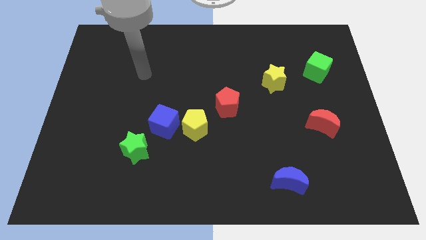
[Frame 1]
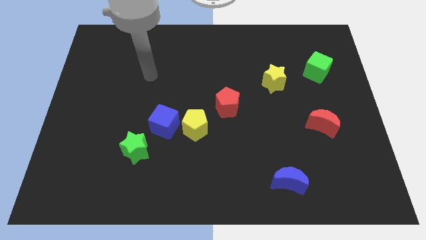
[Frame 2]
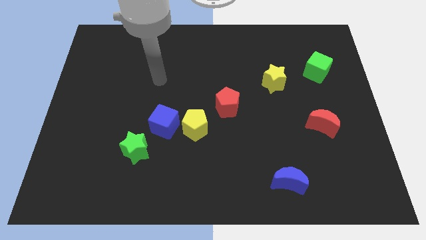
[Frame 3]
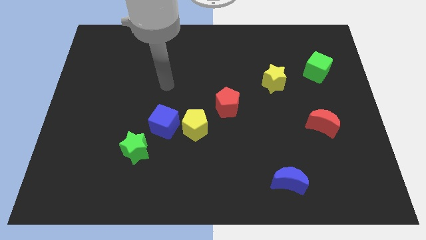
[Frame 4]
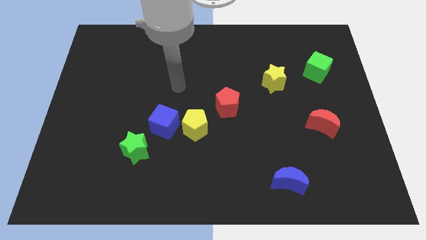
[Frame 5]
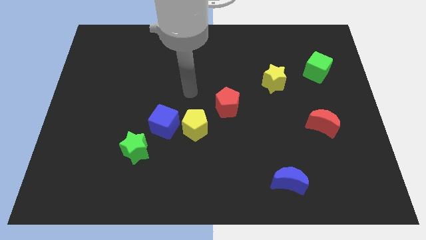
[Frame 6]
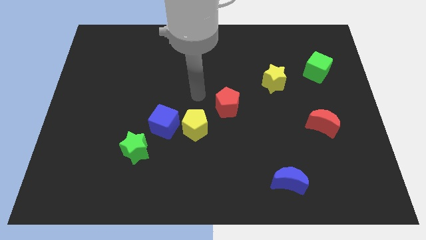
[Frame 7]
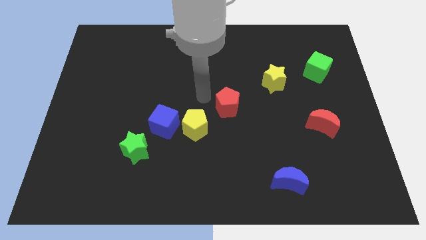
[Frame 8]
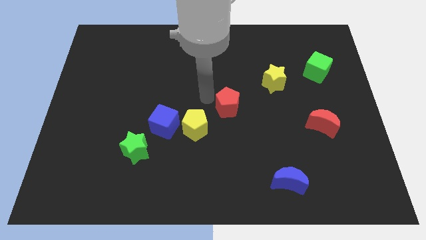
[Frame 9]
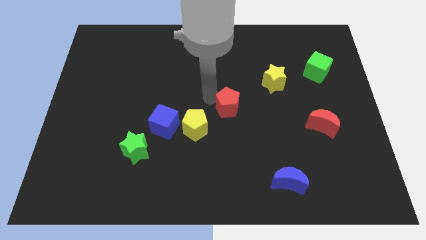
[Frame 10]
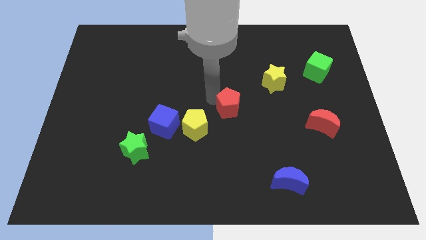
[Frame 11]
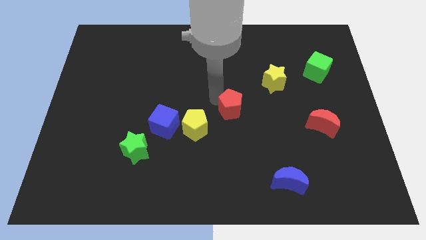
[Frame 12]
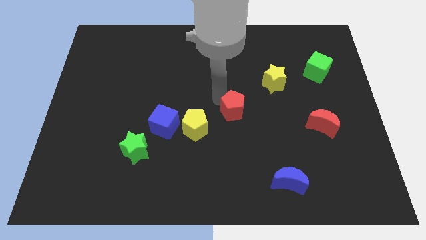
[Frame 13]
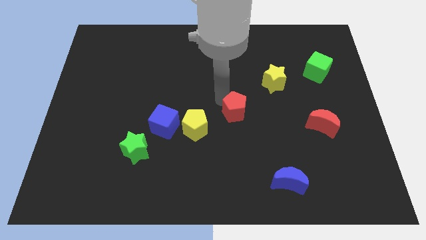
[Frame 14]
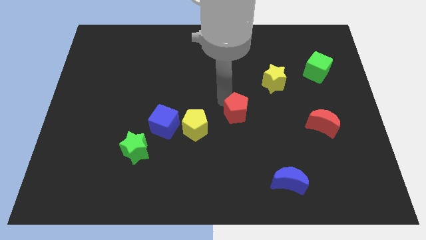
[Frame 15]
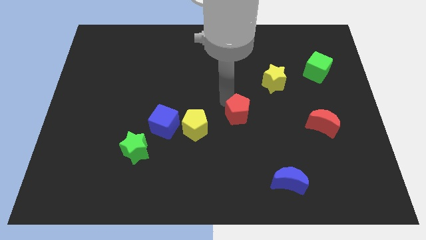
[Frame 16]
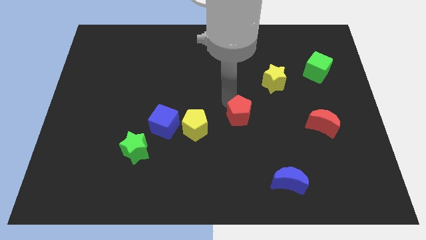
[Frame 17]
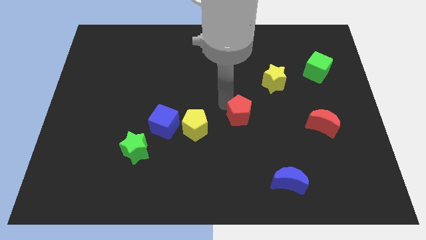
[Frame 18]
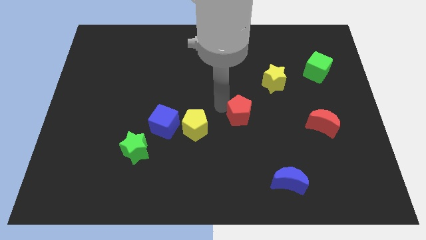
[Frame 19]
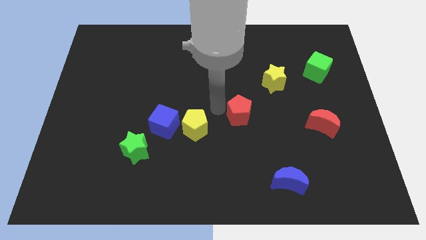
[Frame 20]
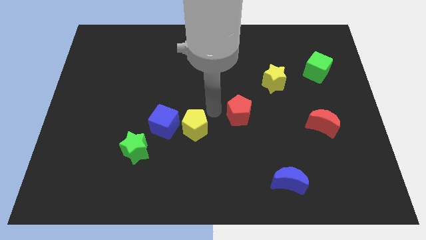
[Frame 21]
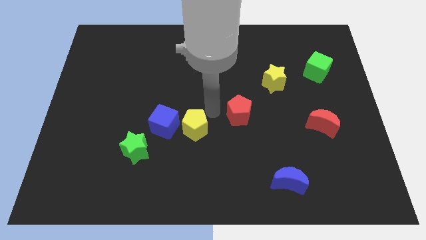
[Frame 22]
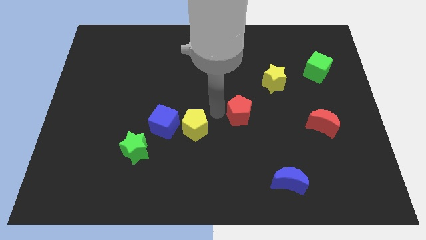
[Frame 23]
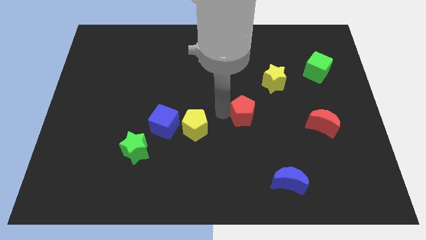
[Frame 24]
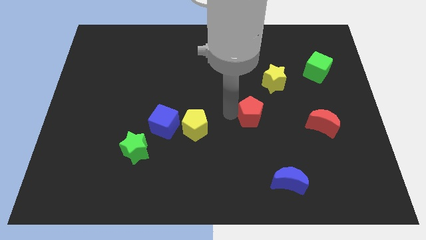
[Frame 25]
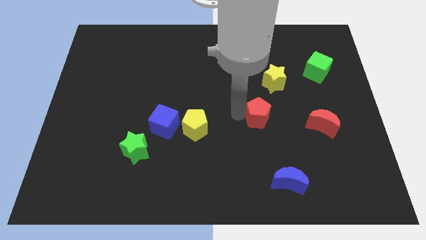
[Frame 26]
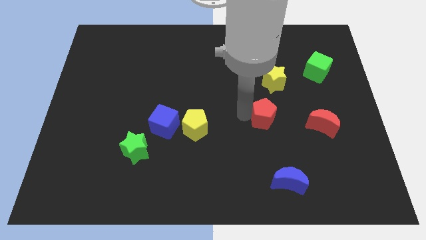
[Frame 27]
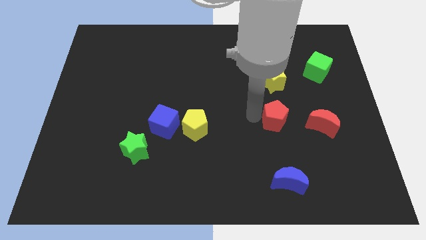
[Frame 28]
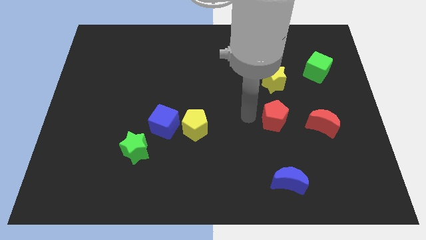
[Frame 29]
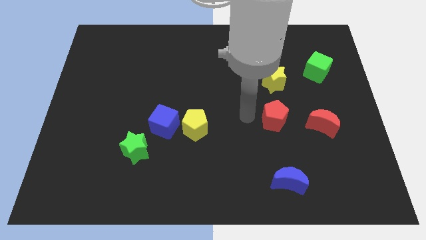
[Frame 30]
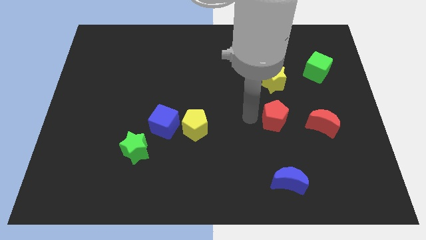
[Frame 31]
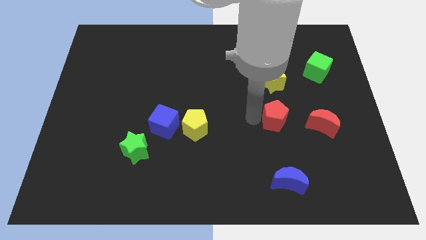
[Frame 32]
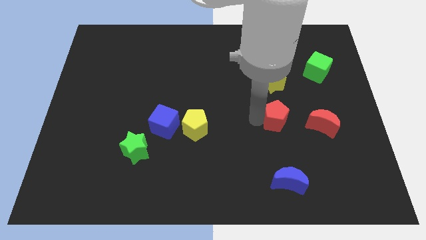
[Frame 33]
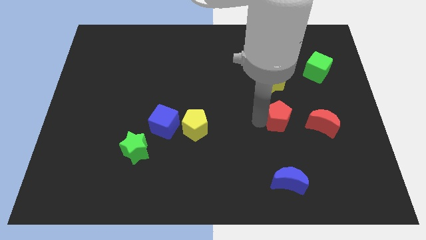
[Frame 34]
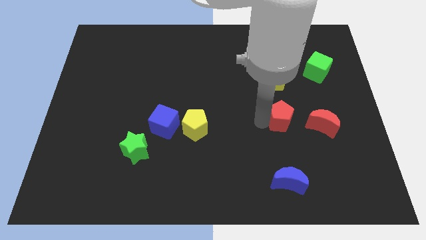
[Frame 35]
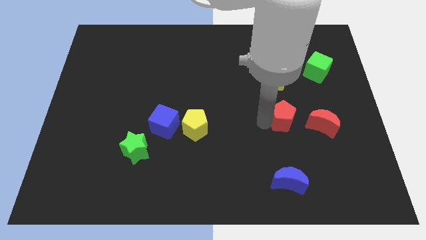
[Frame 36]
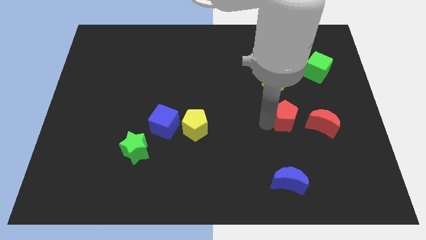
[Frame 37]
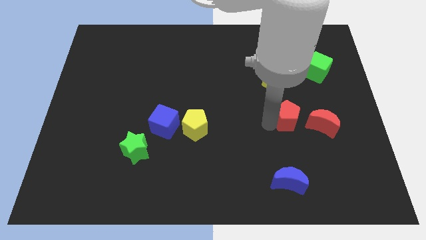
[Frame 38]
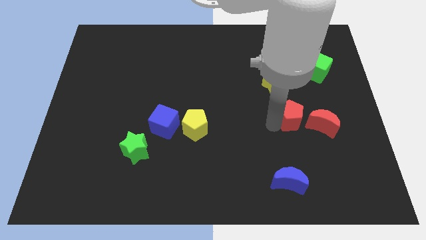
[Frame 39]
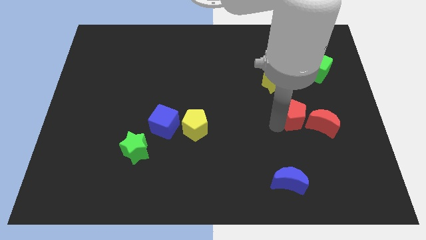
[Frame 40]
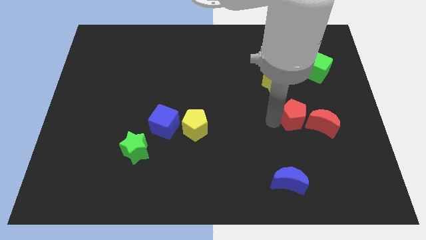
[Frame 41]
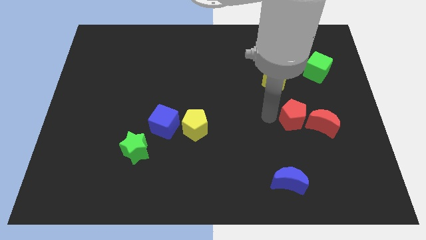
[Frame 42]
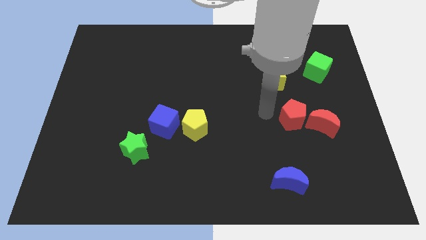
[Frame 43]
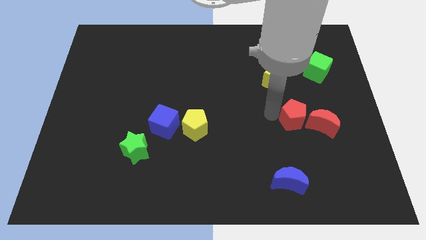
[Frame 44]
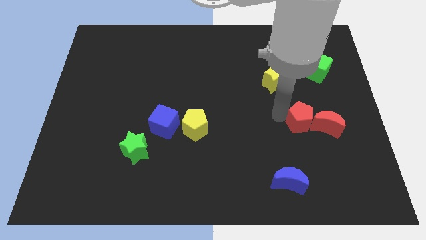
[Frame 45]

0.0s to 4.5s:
move the red pentagon to the red moon

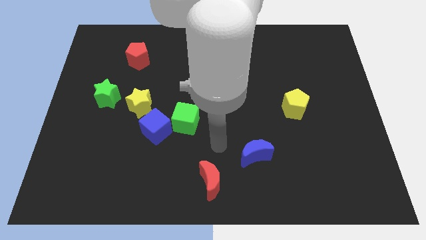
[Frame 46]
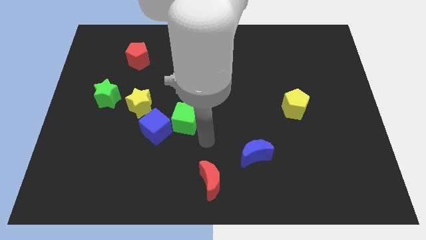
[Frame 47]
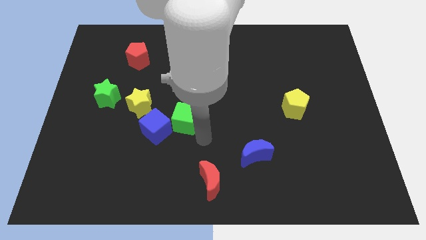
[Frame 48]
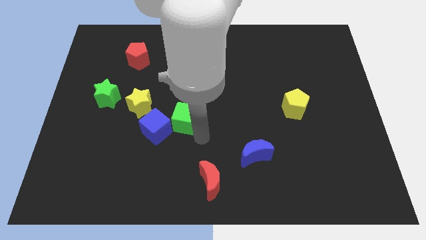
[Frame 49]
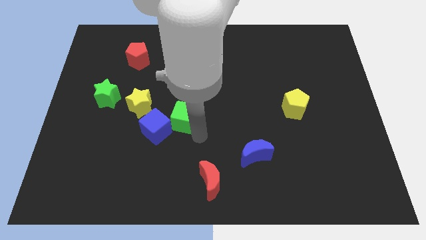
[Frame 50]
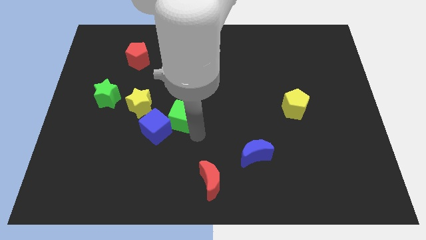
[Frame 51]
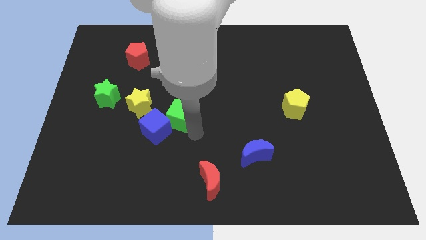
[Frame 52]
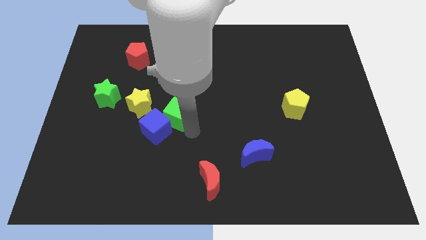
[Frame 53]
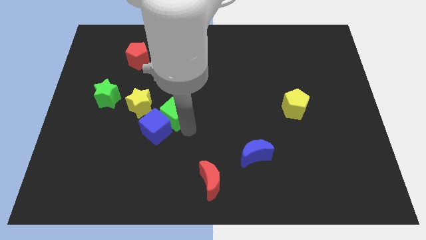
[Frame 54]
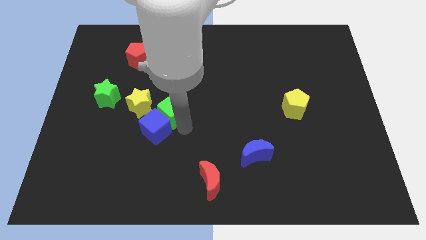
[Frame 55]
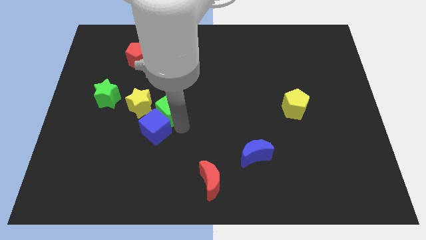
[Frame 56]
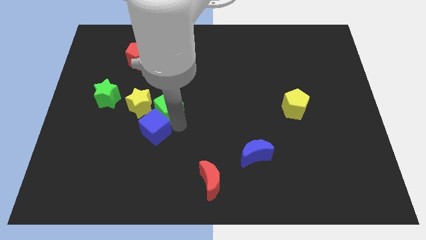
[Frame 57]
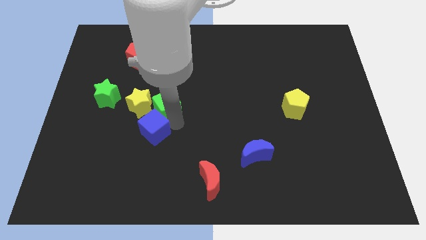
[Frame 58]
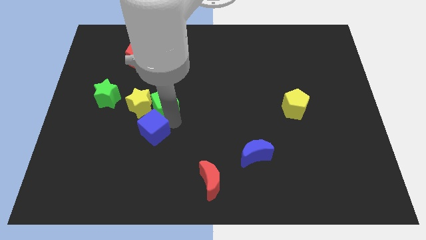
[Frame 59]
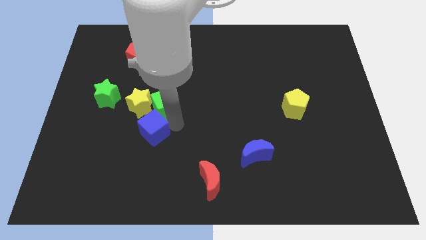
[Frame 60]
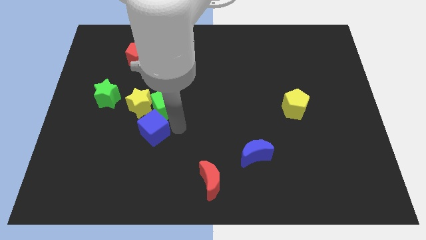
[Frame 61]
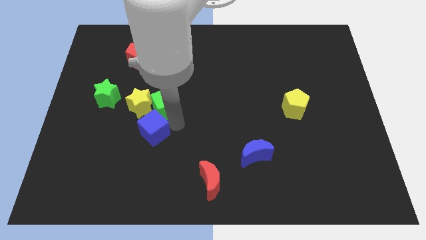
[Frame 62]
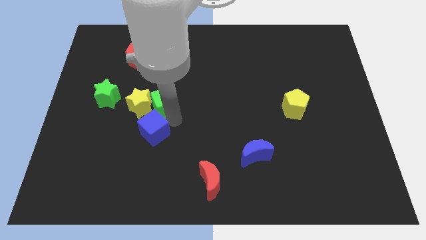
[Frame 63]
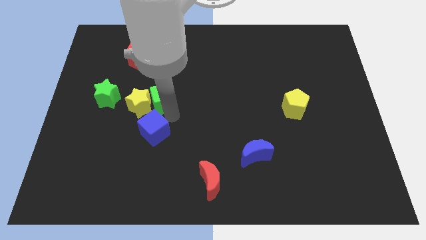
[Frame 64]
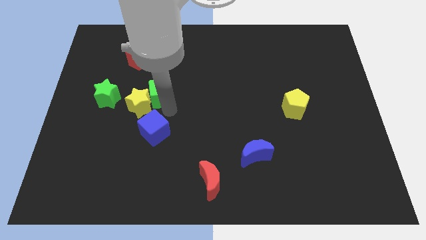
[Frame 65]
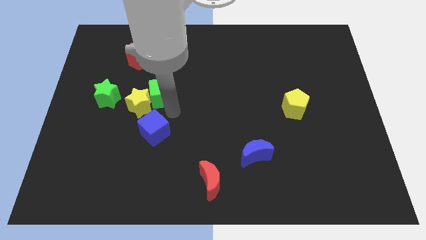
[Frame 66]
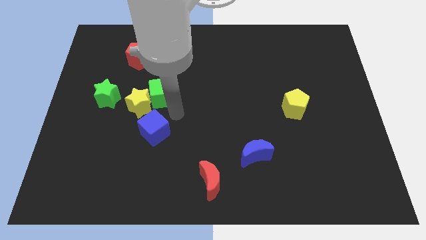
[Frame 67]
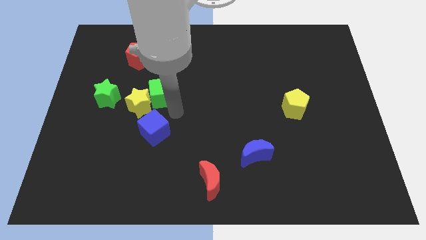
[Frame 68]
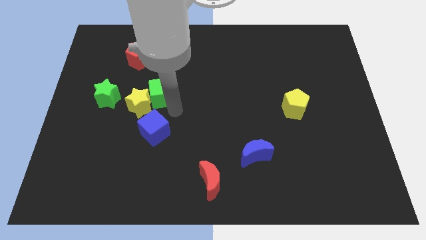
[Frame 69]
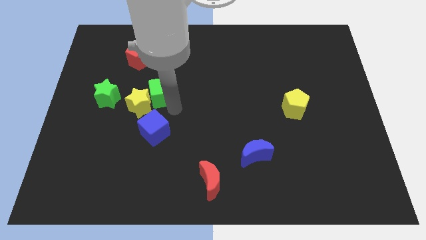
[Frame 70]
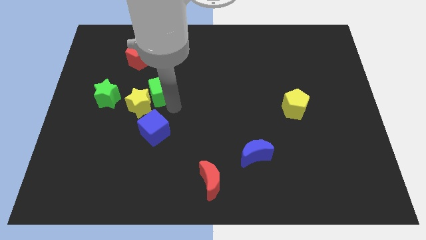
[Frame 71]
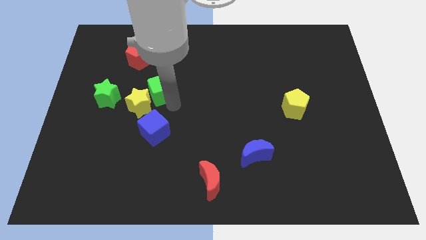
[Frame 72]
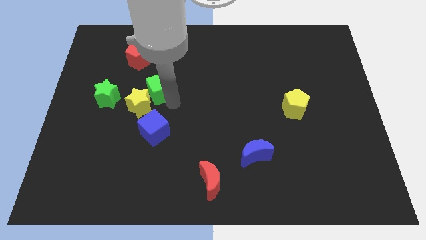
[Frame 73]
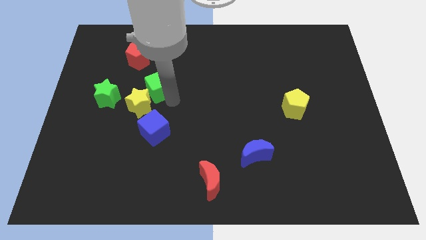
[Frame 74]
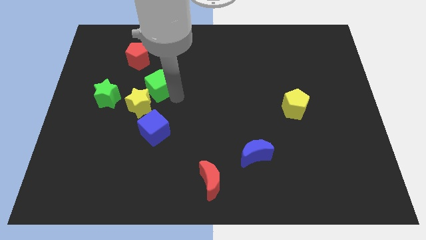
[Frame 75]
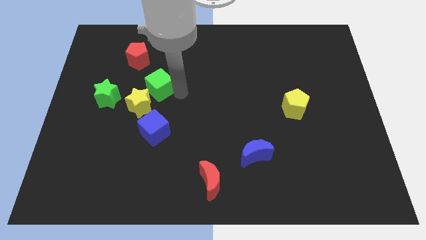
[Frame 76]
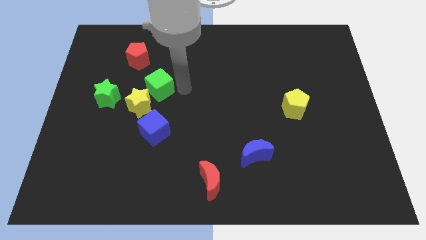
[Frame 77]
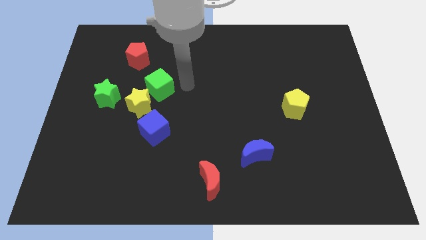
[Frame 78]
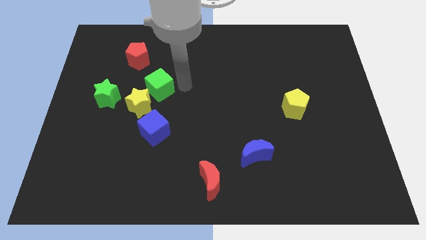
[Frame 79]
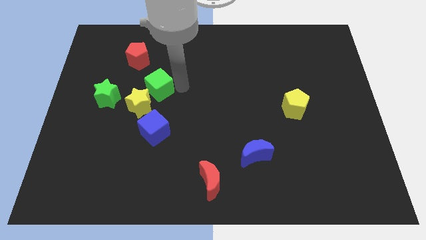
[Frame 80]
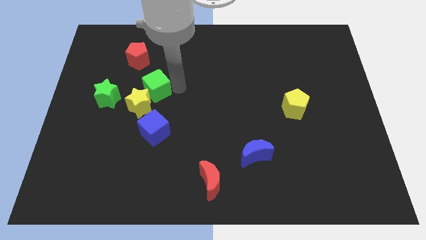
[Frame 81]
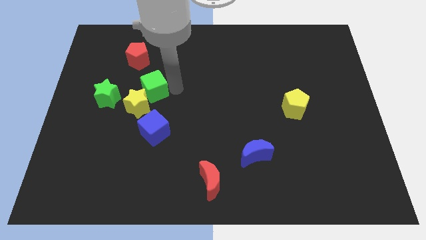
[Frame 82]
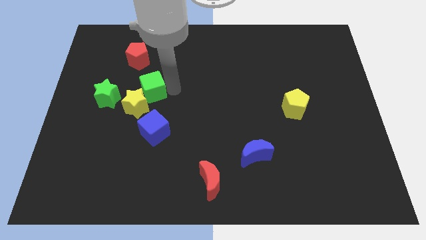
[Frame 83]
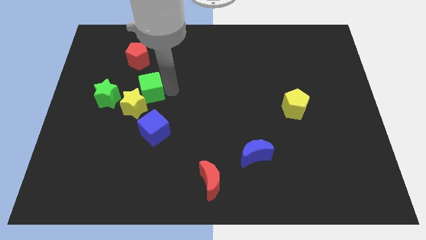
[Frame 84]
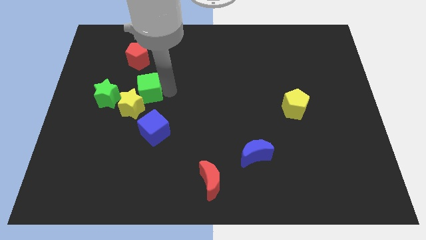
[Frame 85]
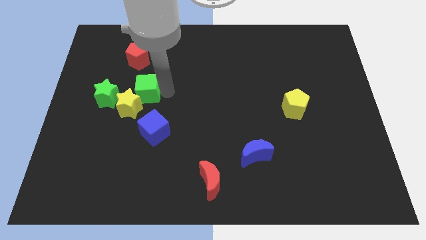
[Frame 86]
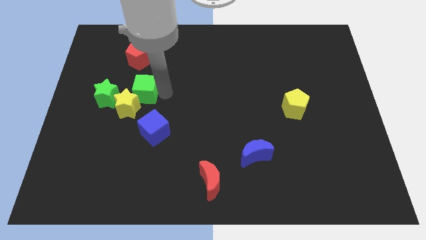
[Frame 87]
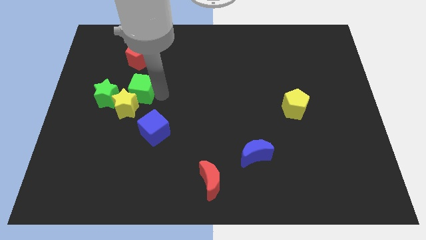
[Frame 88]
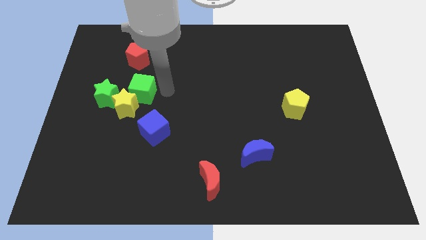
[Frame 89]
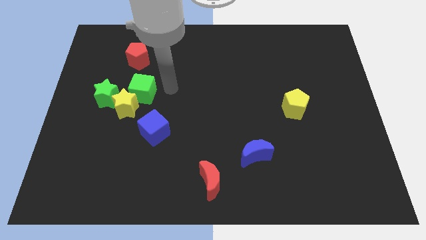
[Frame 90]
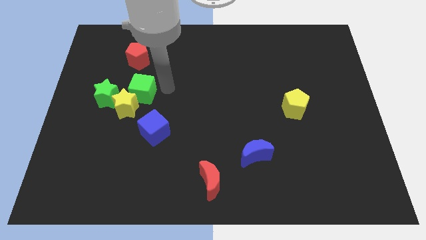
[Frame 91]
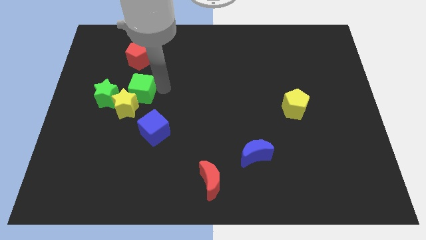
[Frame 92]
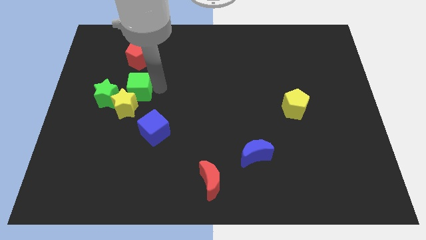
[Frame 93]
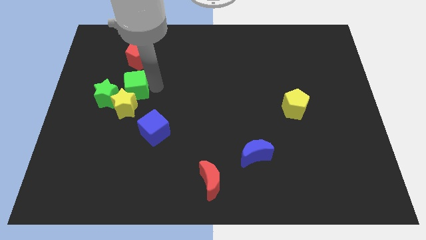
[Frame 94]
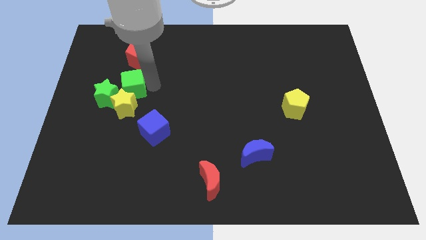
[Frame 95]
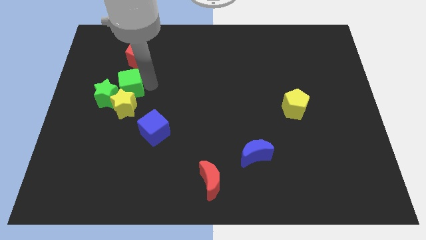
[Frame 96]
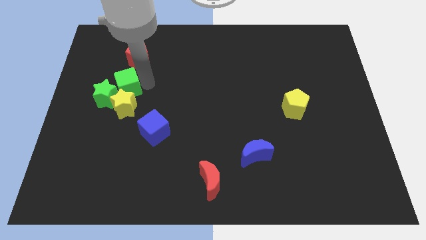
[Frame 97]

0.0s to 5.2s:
push the green cube to the green star
